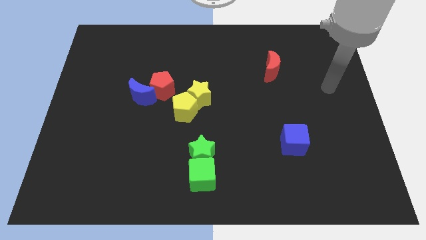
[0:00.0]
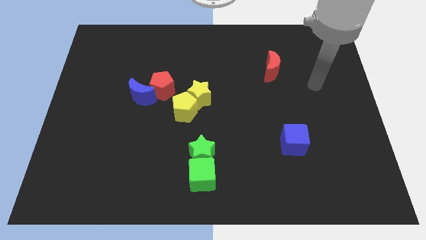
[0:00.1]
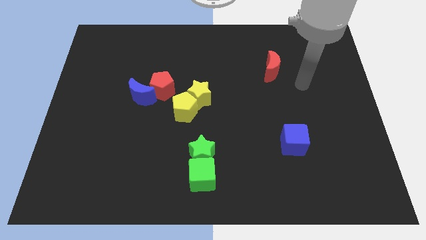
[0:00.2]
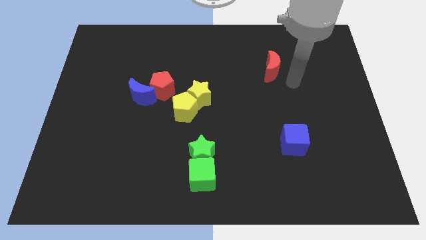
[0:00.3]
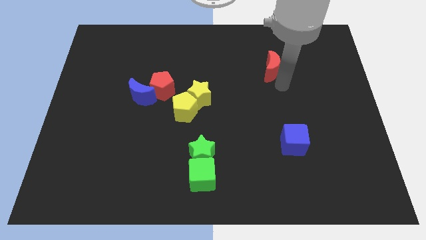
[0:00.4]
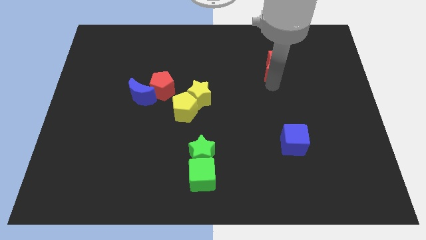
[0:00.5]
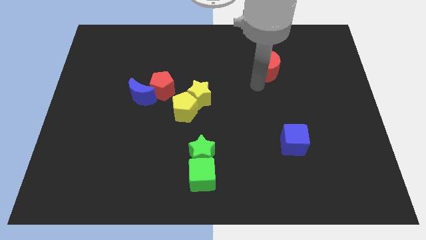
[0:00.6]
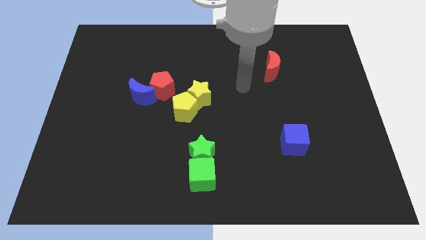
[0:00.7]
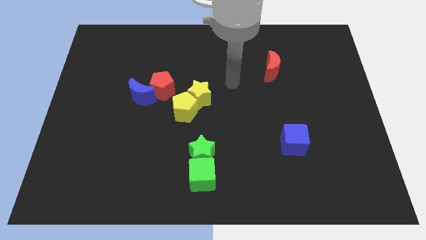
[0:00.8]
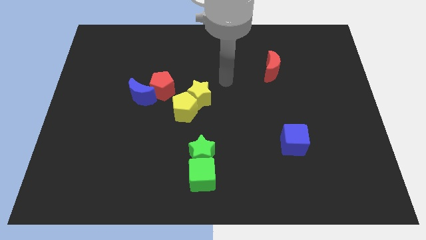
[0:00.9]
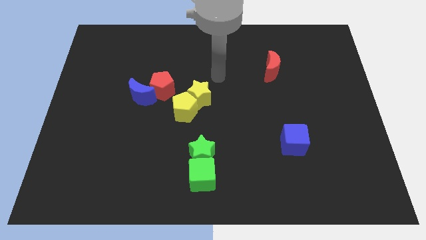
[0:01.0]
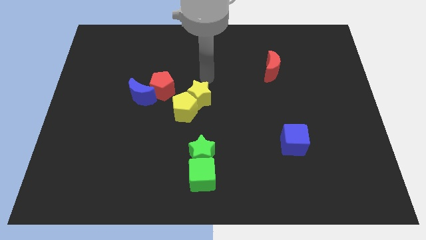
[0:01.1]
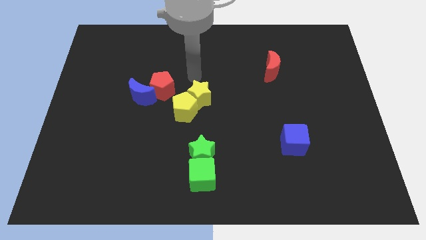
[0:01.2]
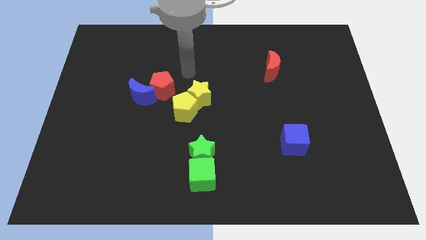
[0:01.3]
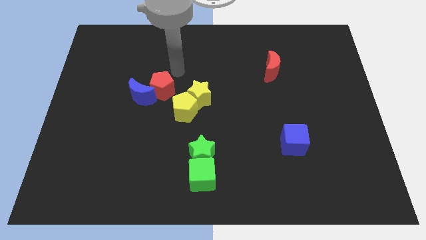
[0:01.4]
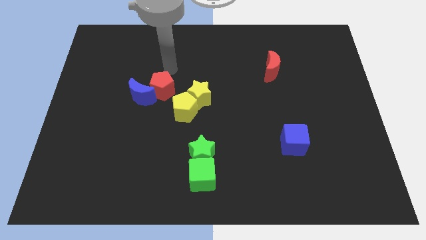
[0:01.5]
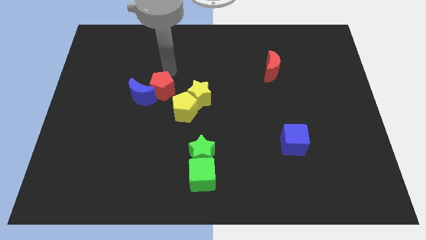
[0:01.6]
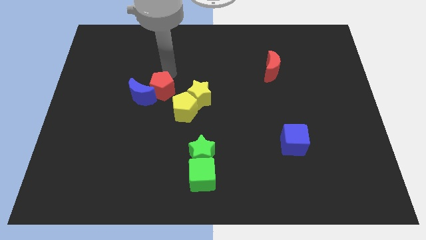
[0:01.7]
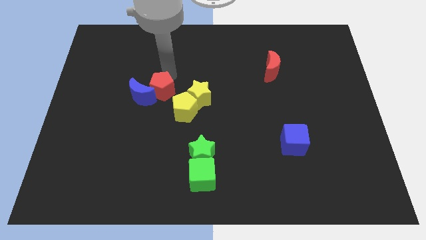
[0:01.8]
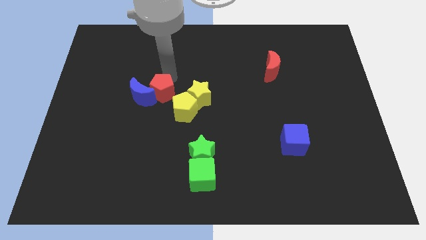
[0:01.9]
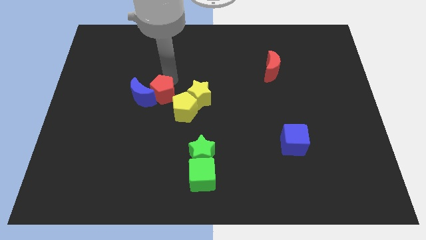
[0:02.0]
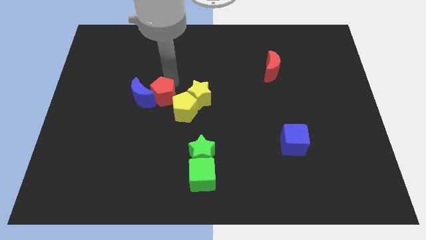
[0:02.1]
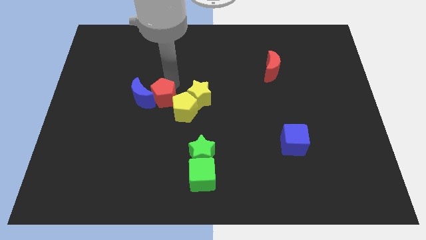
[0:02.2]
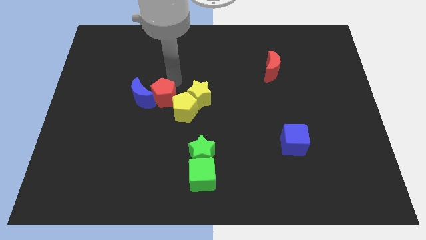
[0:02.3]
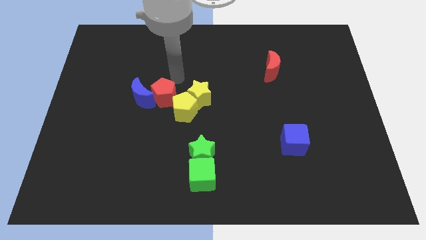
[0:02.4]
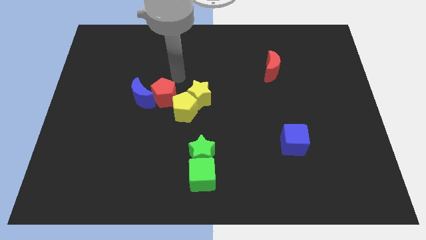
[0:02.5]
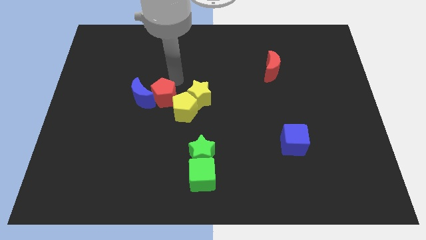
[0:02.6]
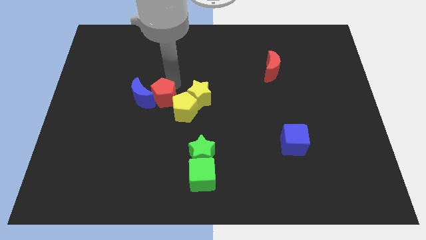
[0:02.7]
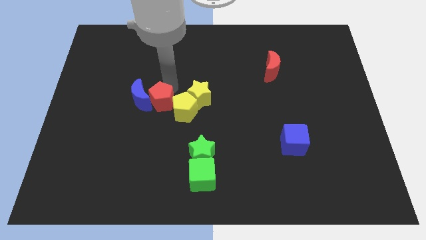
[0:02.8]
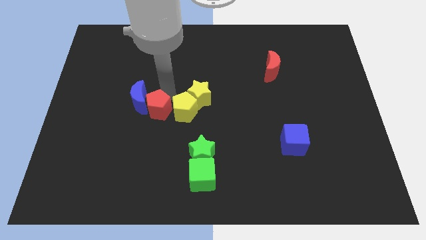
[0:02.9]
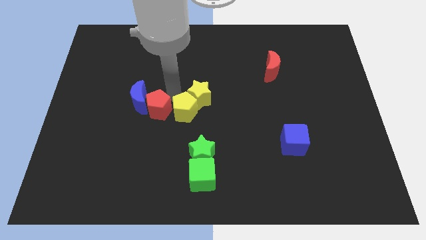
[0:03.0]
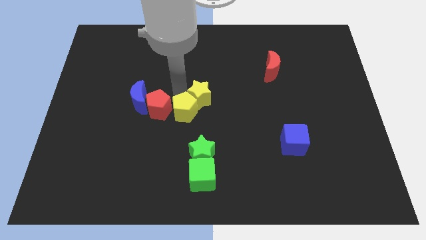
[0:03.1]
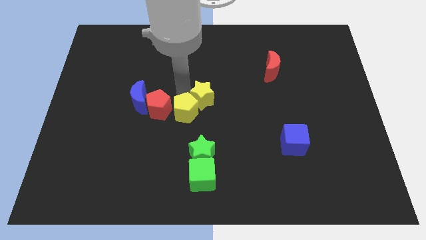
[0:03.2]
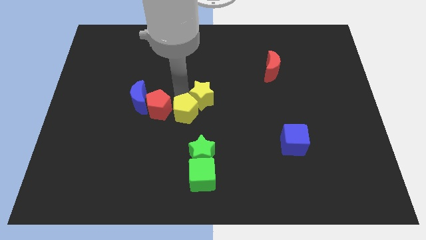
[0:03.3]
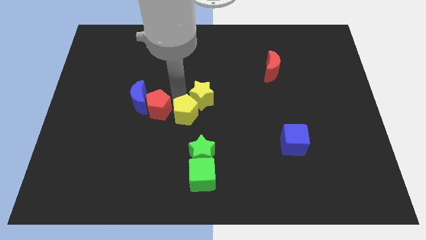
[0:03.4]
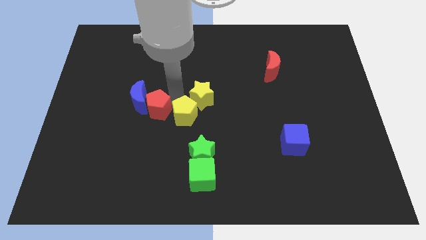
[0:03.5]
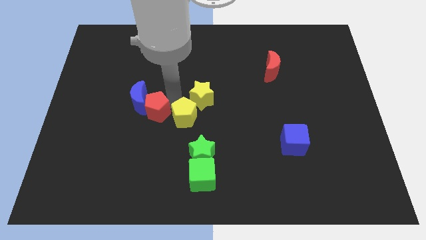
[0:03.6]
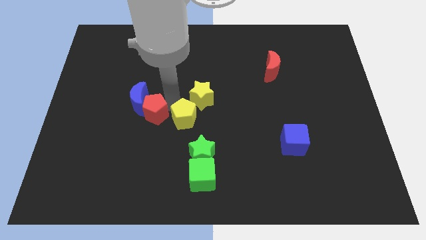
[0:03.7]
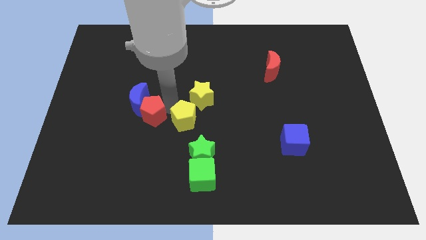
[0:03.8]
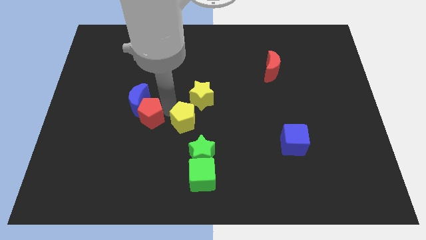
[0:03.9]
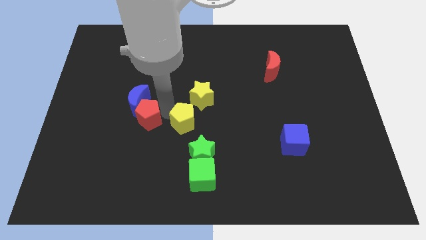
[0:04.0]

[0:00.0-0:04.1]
slightly push the red pentagon down and to the left diagonally

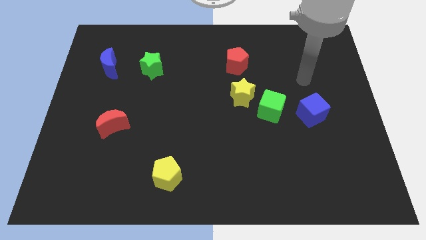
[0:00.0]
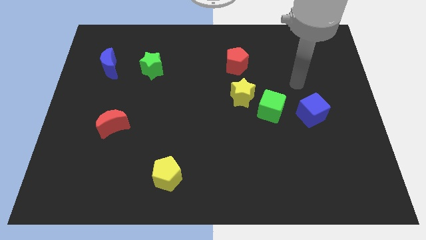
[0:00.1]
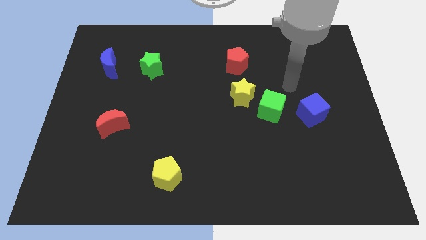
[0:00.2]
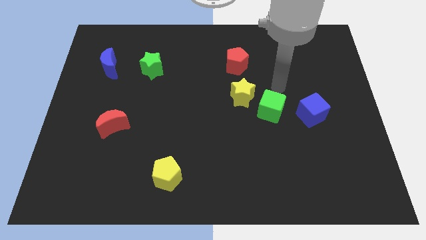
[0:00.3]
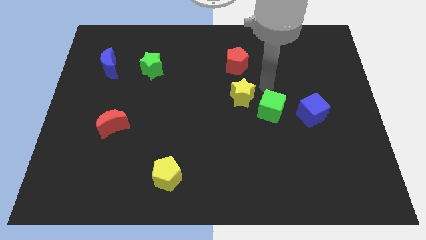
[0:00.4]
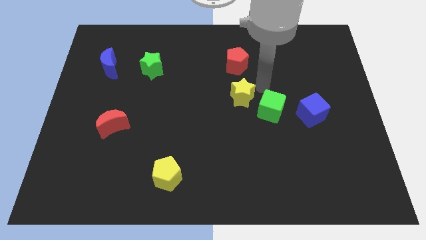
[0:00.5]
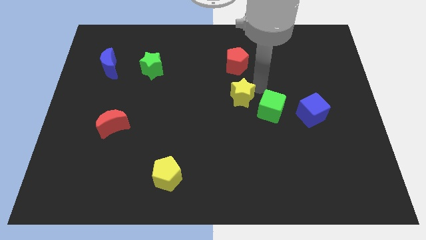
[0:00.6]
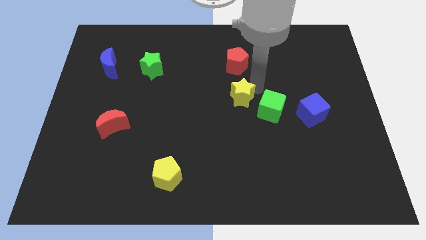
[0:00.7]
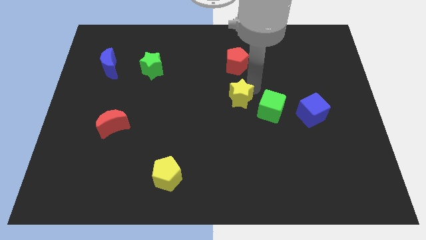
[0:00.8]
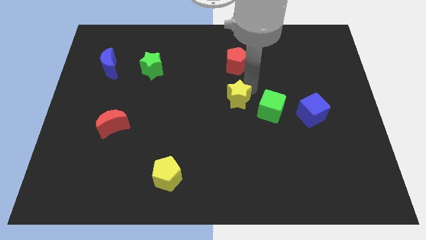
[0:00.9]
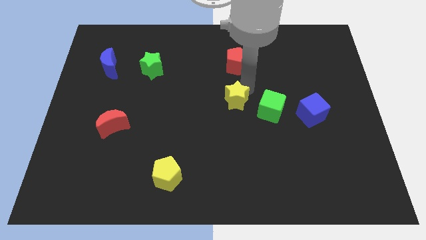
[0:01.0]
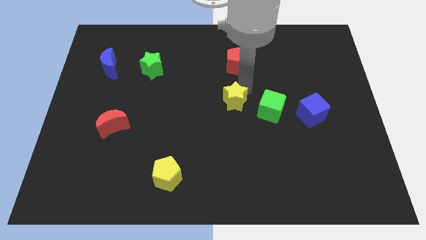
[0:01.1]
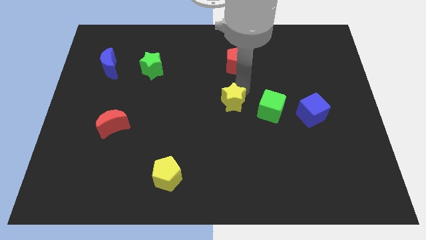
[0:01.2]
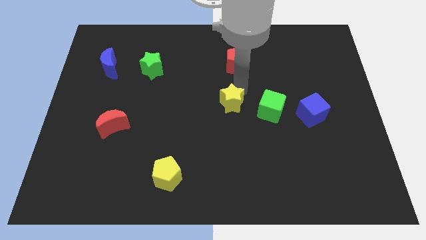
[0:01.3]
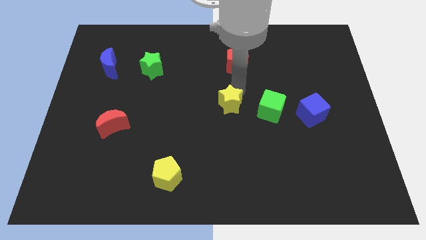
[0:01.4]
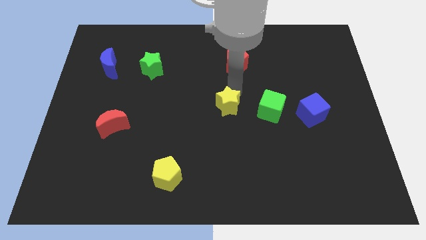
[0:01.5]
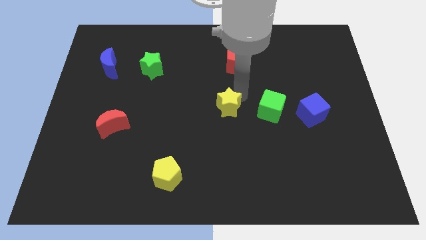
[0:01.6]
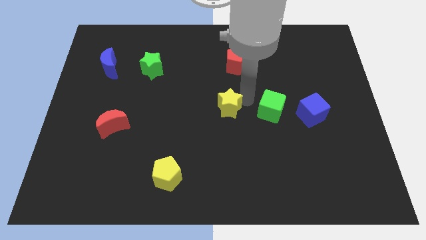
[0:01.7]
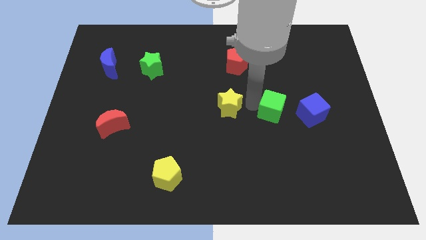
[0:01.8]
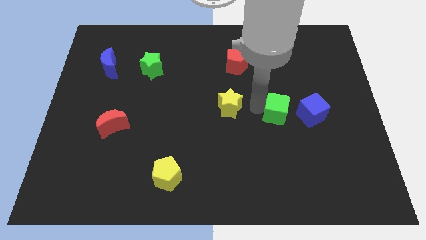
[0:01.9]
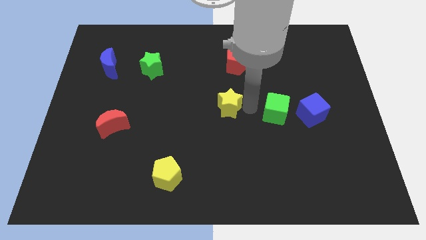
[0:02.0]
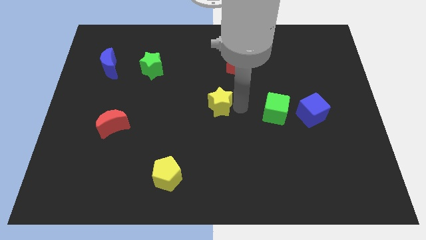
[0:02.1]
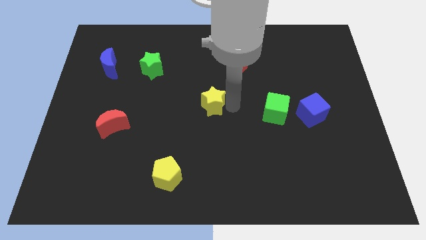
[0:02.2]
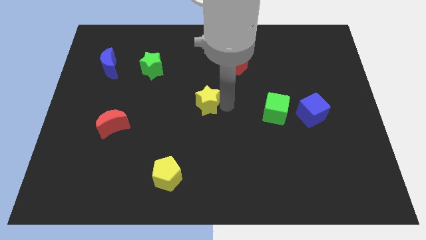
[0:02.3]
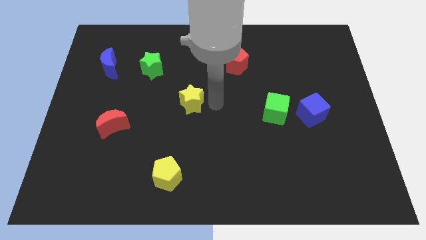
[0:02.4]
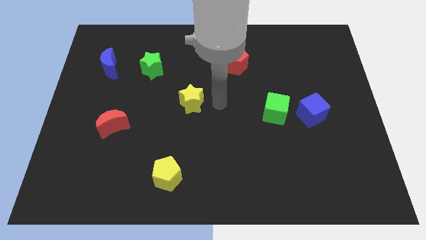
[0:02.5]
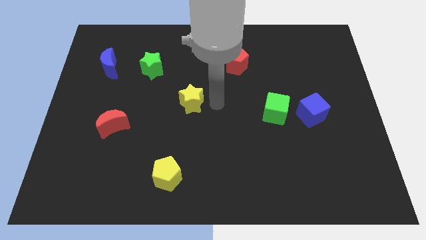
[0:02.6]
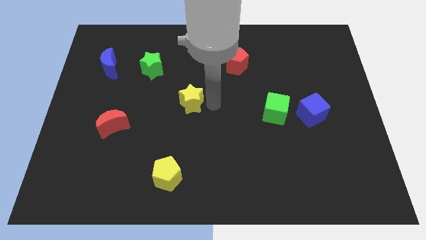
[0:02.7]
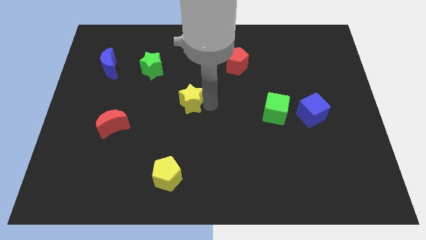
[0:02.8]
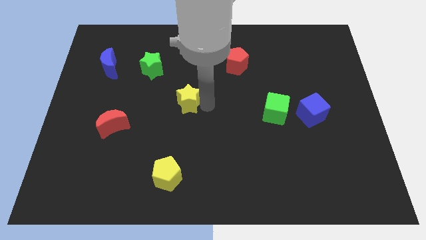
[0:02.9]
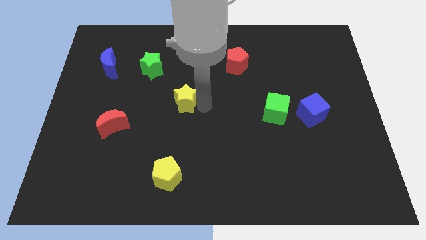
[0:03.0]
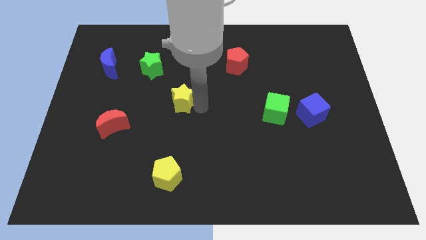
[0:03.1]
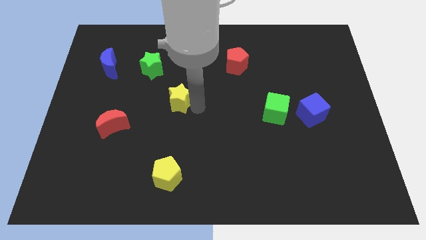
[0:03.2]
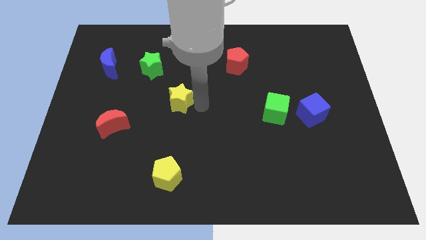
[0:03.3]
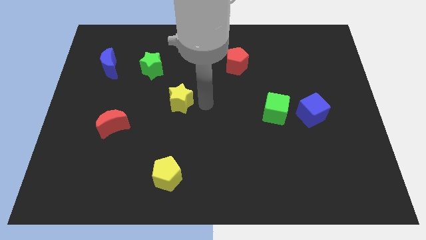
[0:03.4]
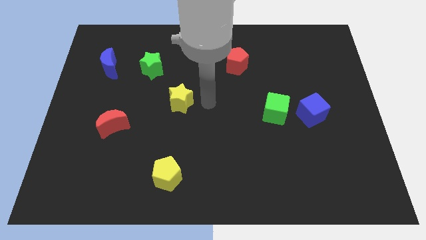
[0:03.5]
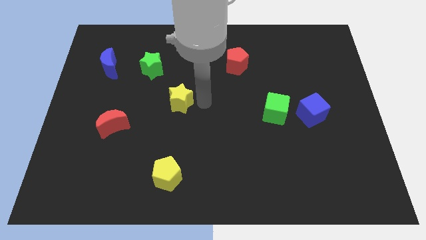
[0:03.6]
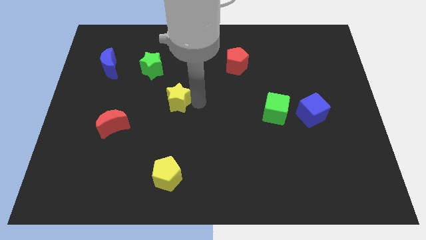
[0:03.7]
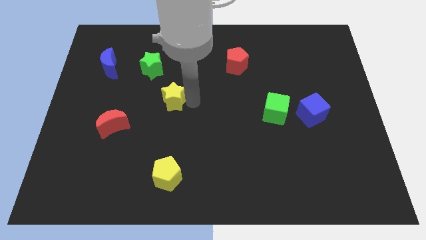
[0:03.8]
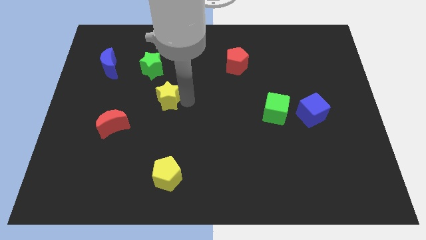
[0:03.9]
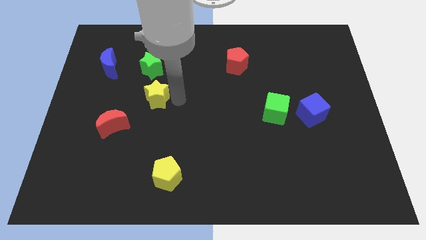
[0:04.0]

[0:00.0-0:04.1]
move the yellow star to the left

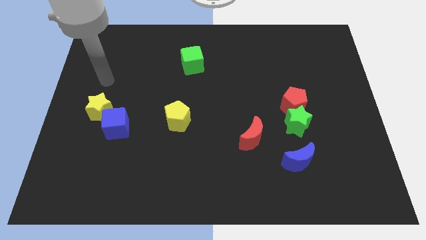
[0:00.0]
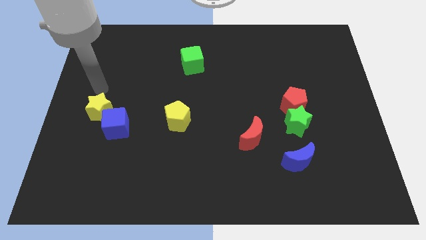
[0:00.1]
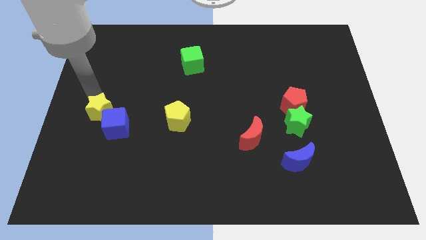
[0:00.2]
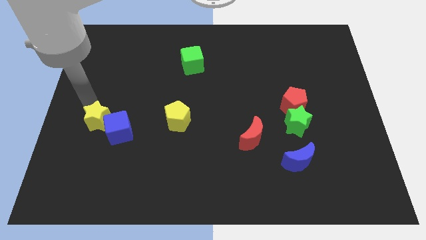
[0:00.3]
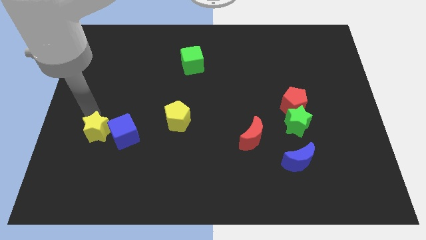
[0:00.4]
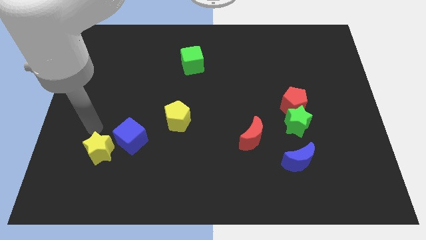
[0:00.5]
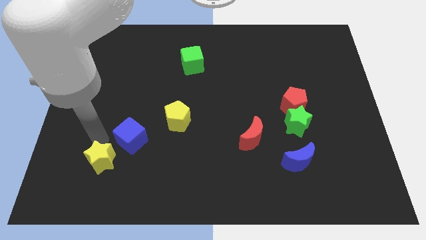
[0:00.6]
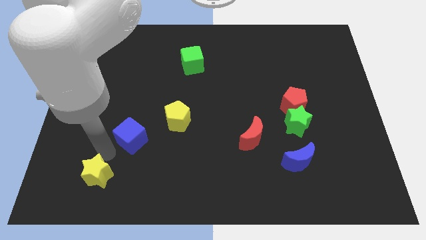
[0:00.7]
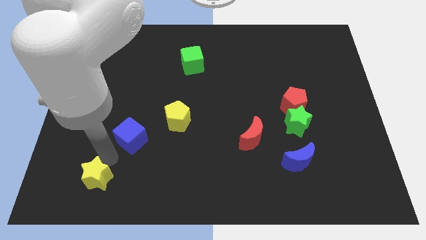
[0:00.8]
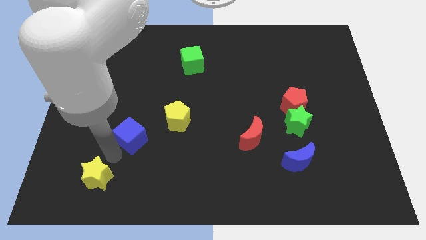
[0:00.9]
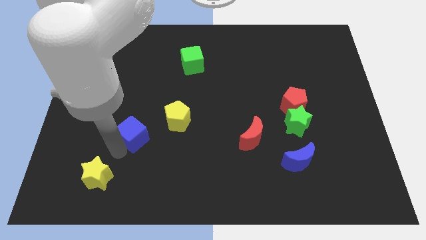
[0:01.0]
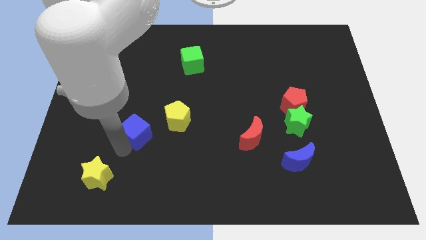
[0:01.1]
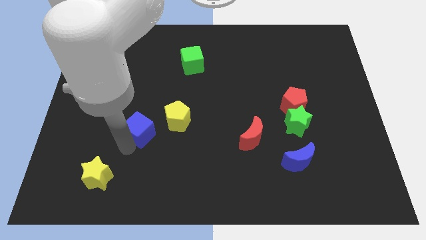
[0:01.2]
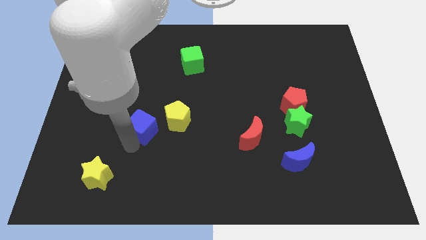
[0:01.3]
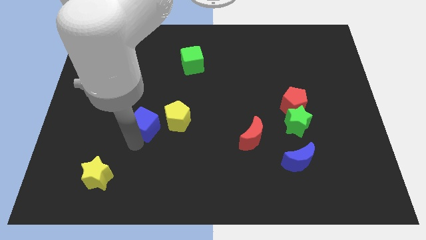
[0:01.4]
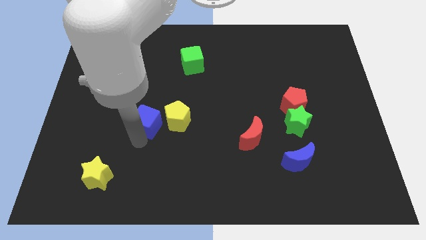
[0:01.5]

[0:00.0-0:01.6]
move the blue cube right a little
